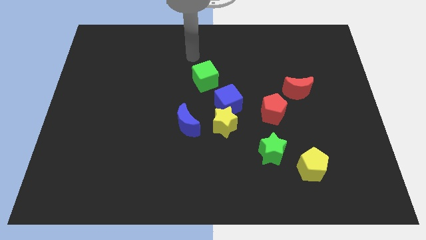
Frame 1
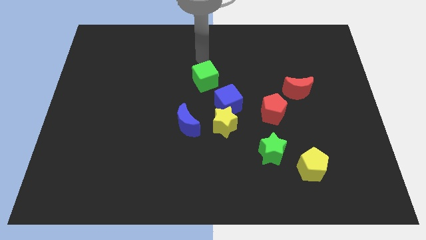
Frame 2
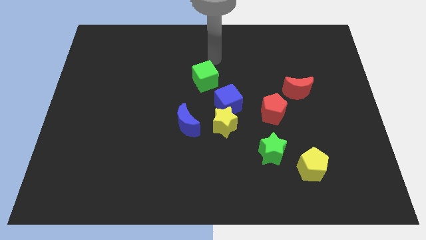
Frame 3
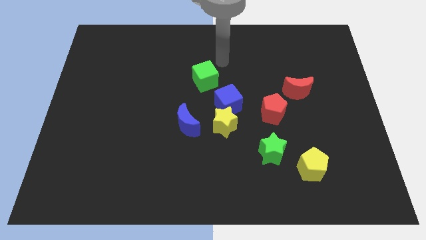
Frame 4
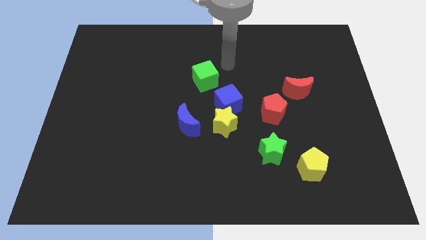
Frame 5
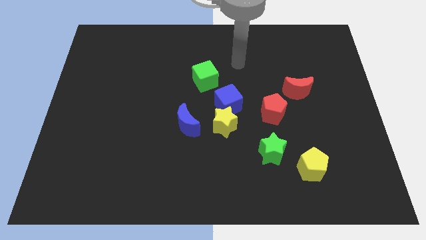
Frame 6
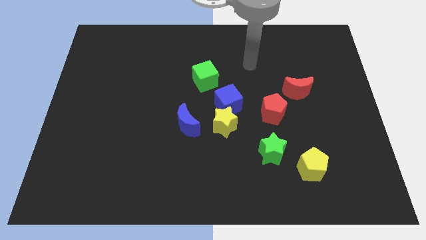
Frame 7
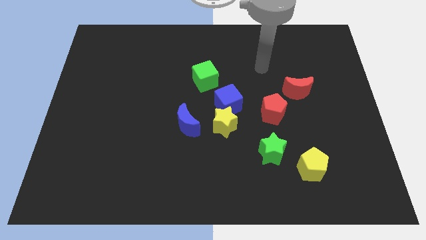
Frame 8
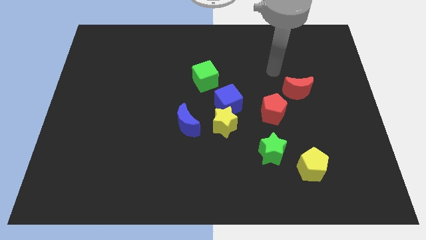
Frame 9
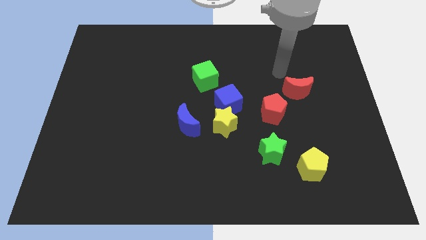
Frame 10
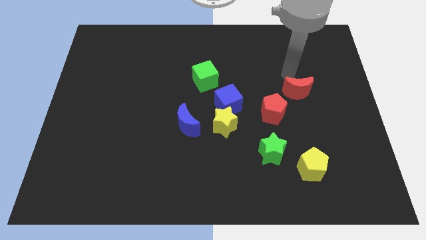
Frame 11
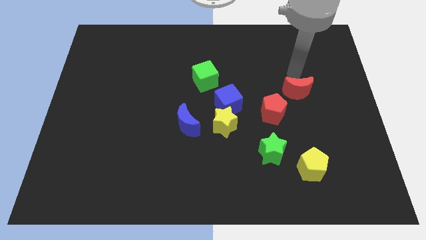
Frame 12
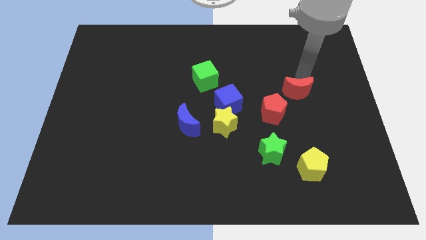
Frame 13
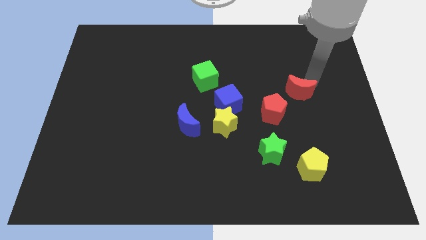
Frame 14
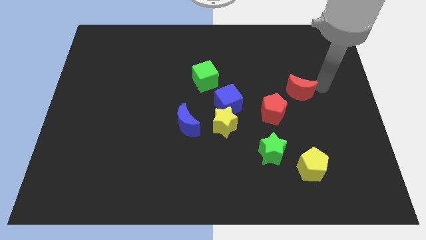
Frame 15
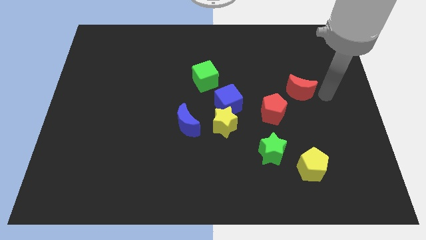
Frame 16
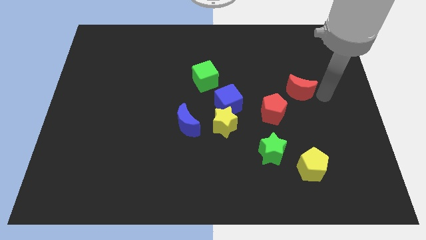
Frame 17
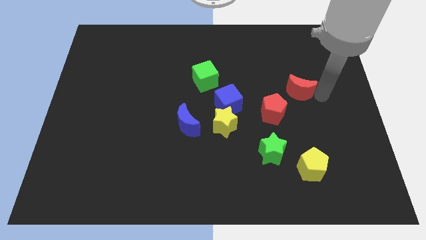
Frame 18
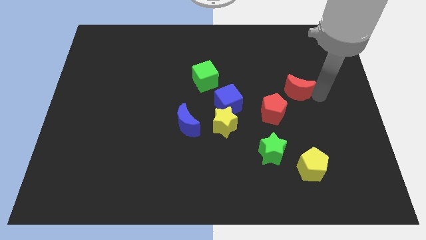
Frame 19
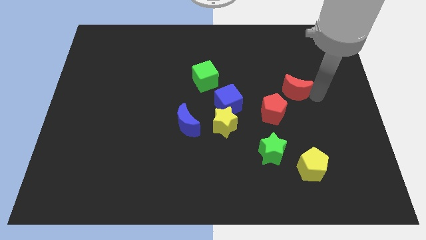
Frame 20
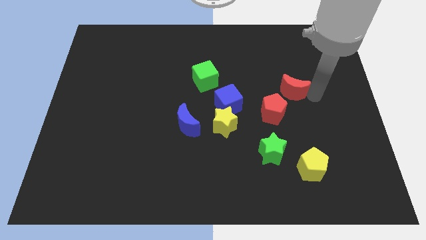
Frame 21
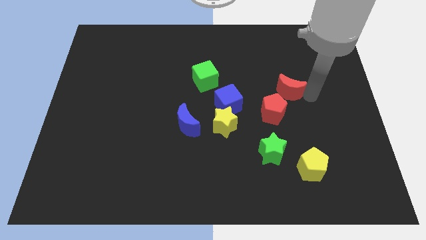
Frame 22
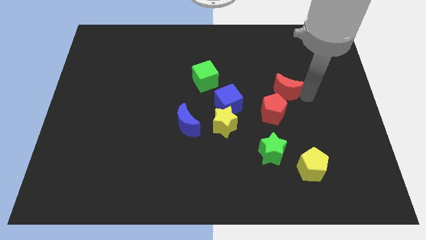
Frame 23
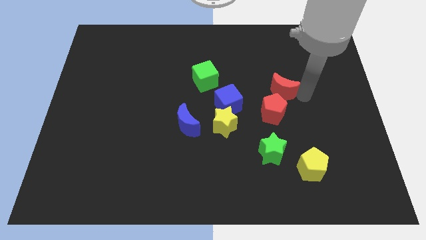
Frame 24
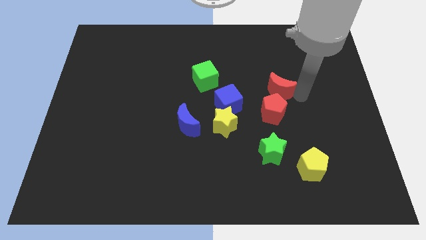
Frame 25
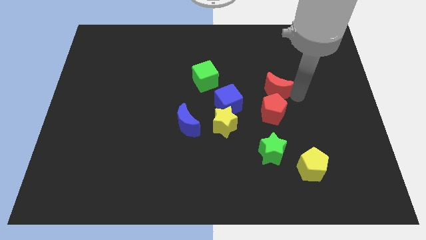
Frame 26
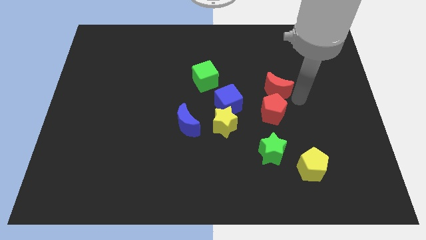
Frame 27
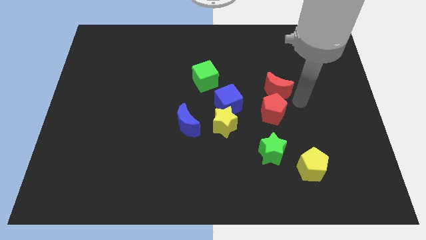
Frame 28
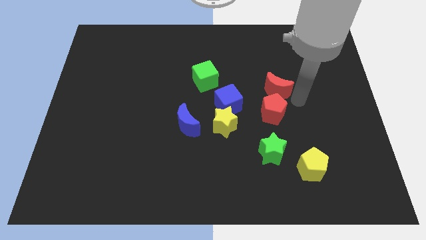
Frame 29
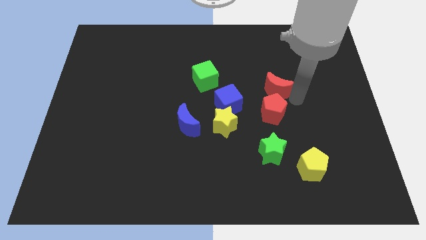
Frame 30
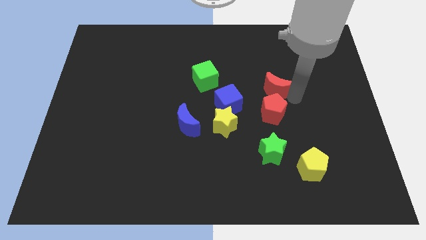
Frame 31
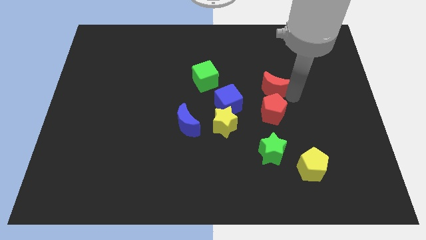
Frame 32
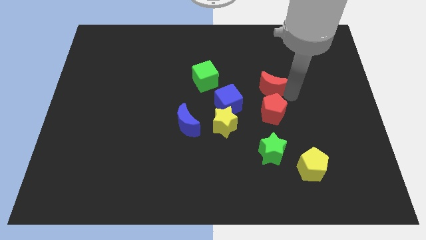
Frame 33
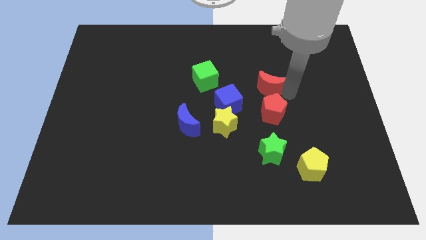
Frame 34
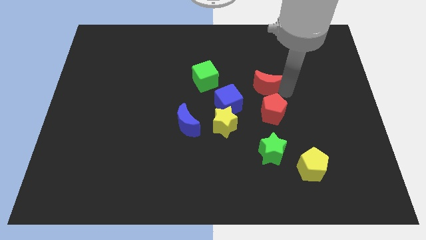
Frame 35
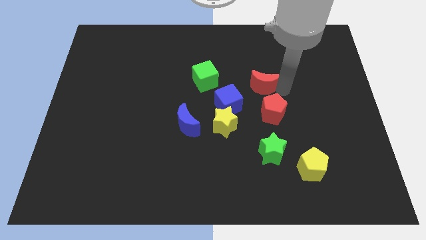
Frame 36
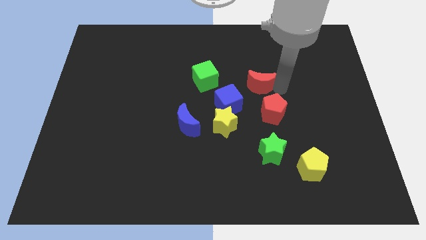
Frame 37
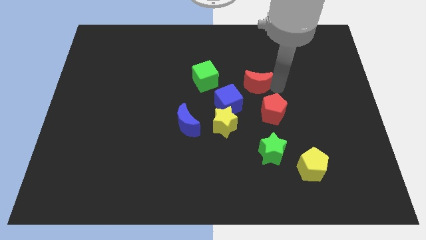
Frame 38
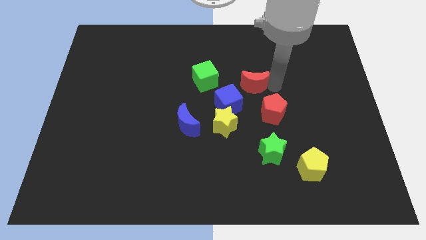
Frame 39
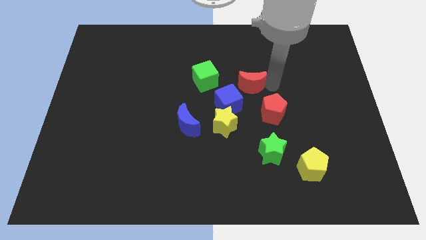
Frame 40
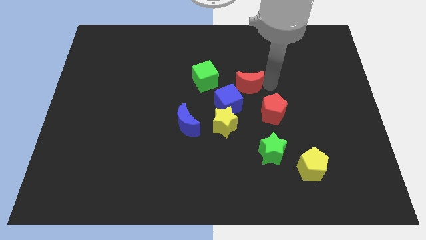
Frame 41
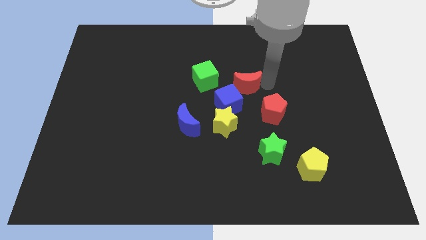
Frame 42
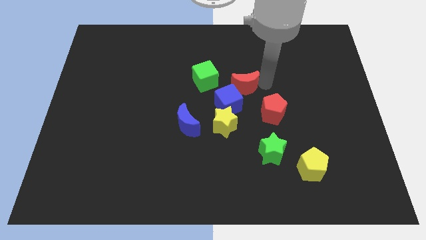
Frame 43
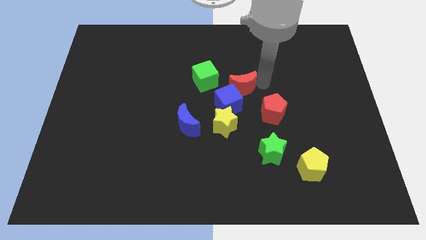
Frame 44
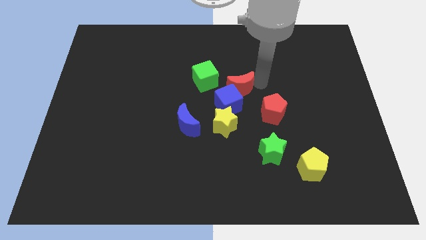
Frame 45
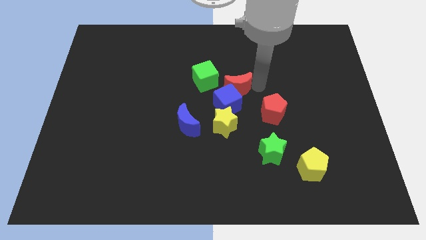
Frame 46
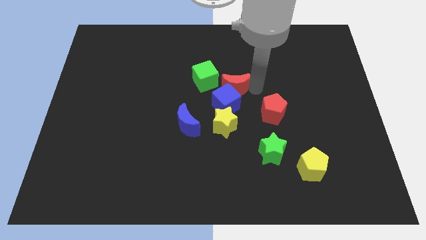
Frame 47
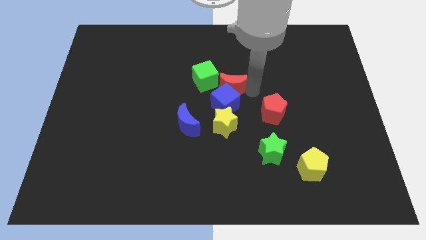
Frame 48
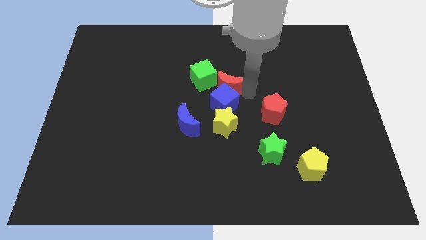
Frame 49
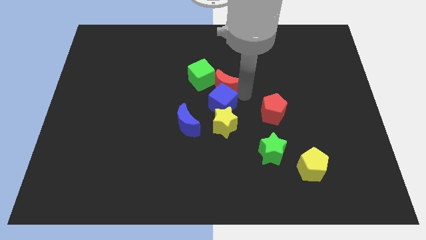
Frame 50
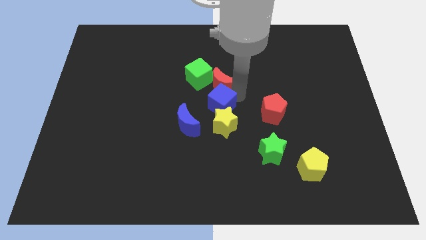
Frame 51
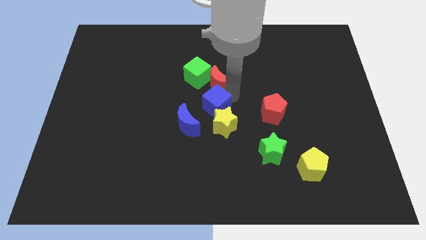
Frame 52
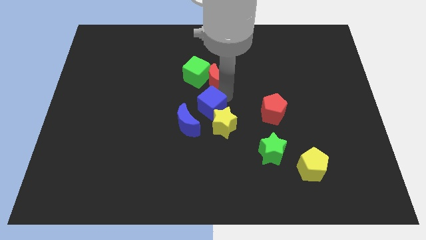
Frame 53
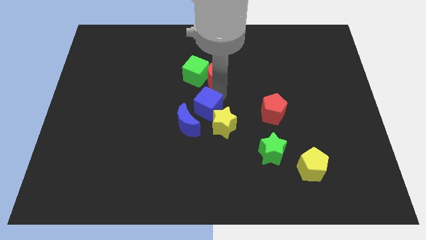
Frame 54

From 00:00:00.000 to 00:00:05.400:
slide the red moon left

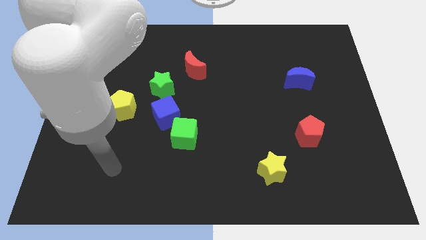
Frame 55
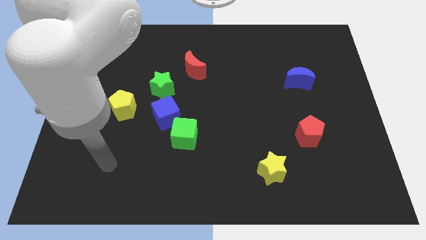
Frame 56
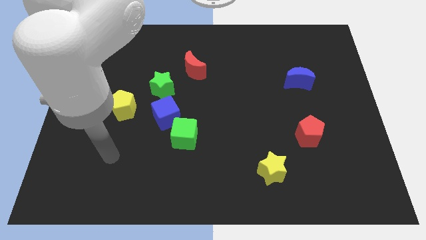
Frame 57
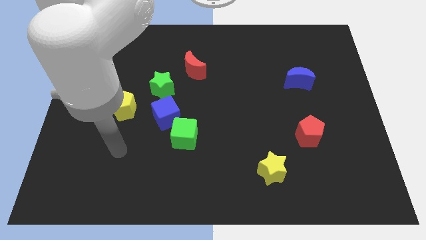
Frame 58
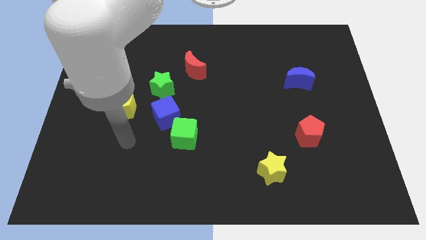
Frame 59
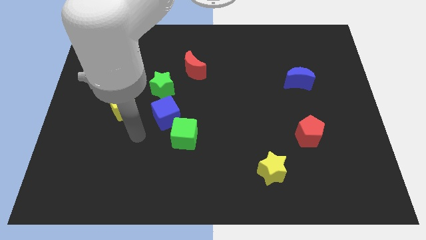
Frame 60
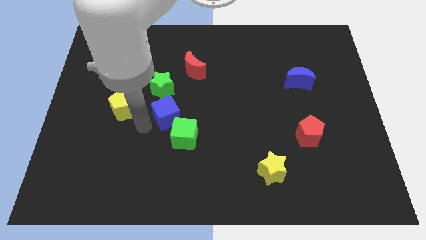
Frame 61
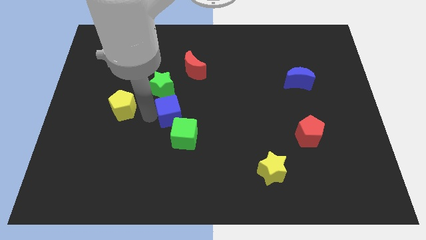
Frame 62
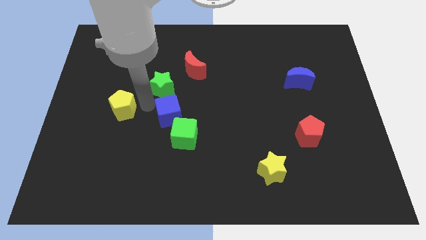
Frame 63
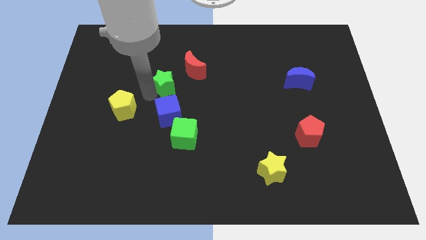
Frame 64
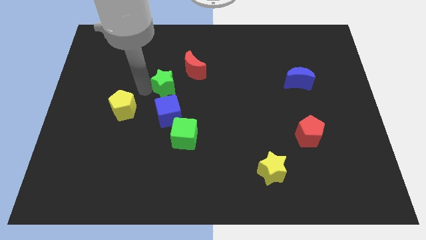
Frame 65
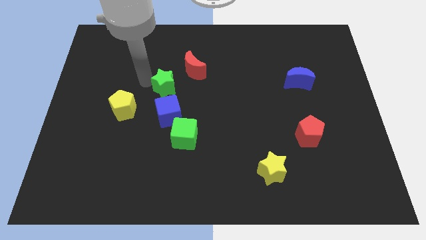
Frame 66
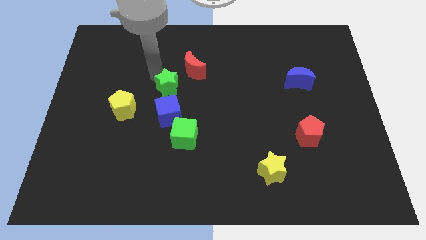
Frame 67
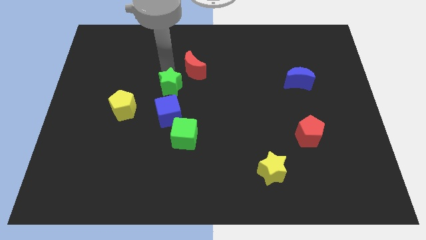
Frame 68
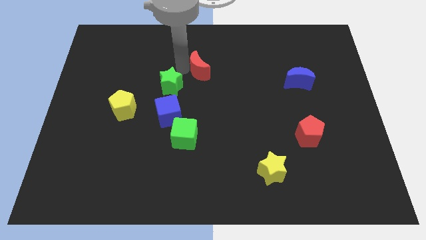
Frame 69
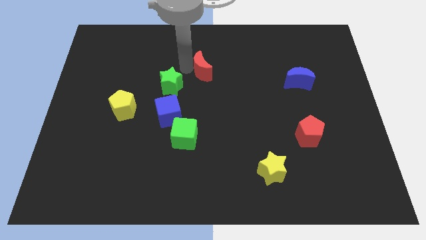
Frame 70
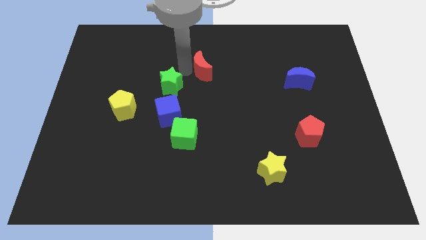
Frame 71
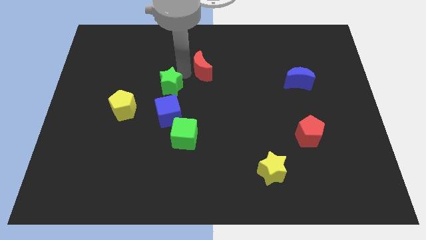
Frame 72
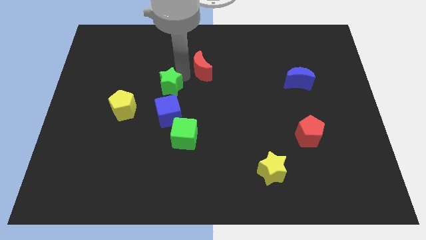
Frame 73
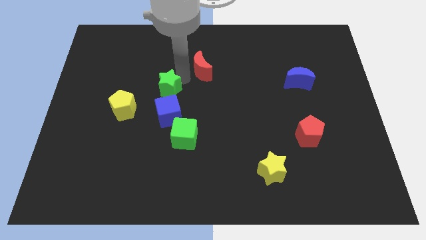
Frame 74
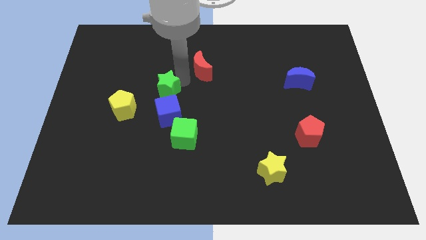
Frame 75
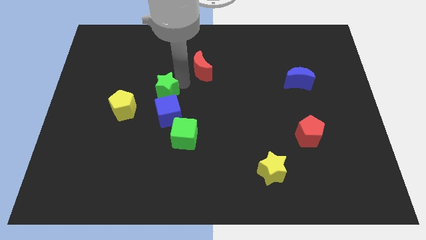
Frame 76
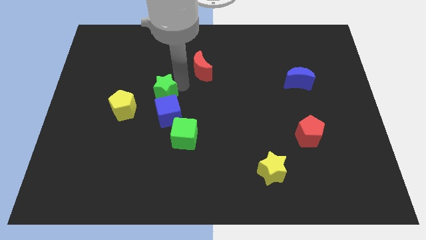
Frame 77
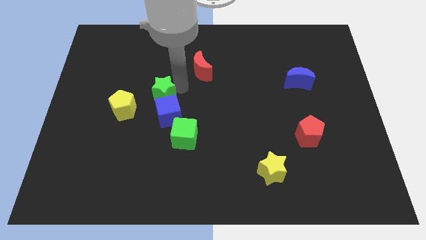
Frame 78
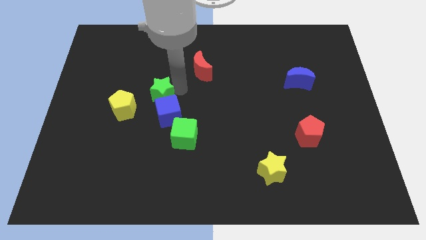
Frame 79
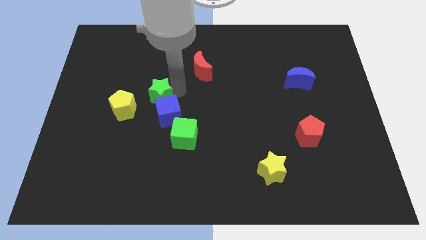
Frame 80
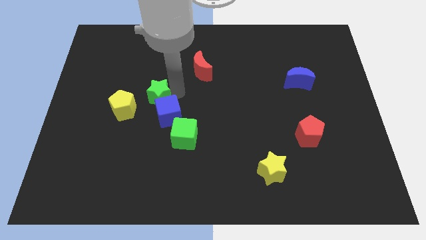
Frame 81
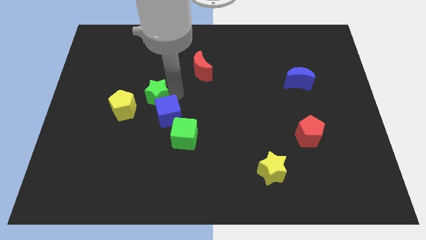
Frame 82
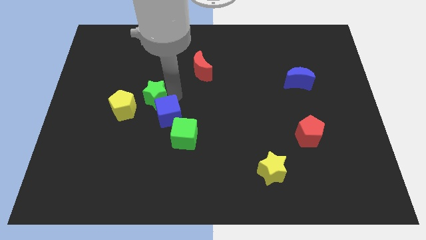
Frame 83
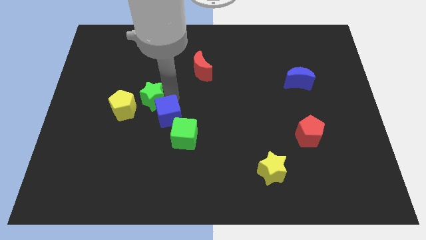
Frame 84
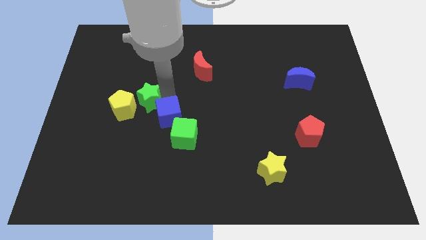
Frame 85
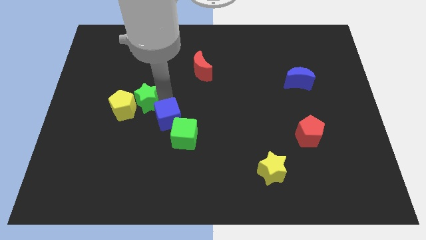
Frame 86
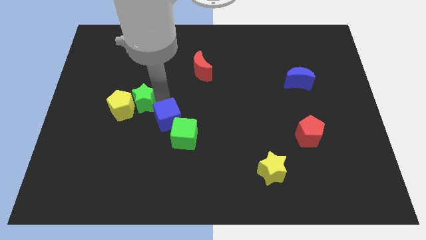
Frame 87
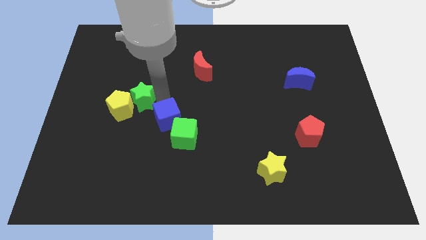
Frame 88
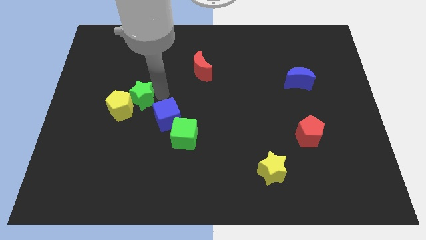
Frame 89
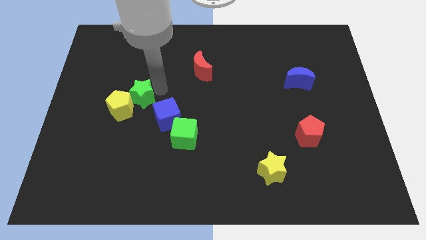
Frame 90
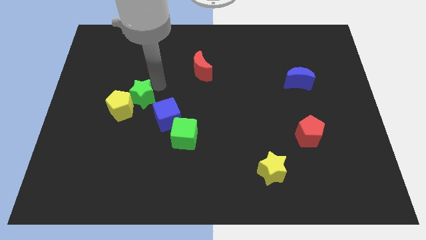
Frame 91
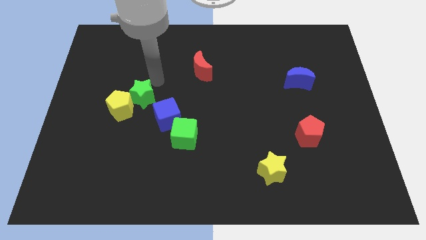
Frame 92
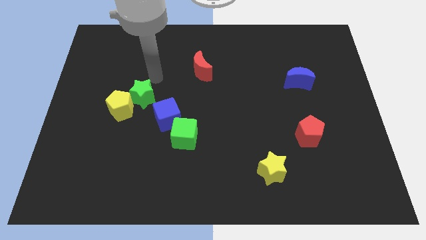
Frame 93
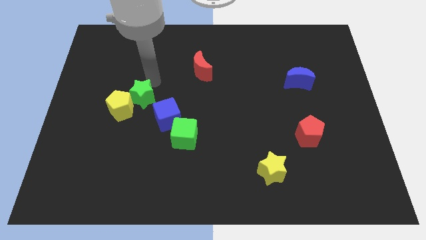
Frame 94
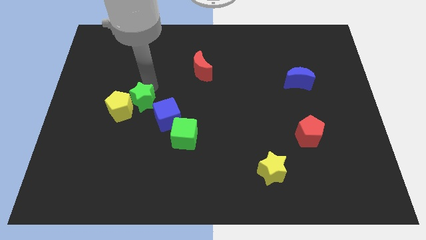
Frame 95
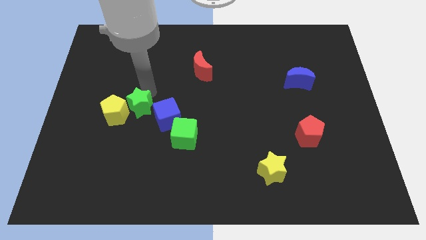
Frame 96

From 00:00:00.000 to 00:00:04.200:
move the green star slightly down and then to the left
